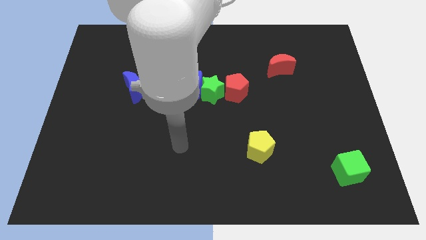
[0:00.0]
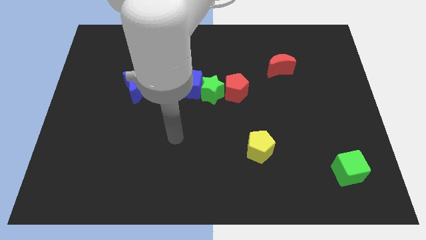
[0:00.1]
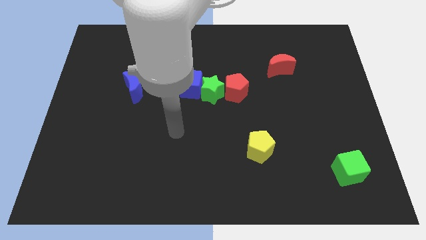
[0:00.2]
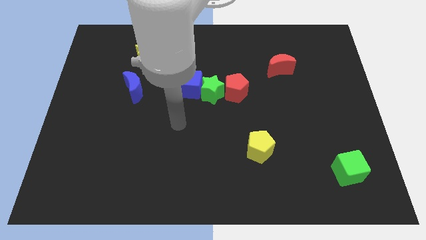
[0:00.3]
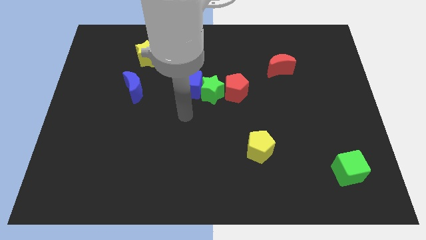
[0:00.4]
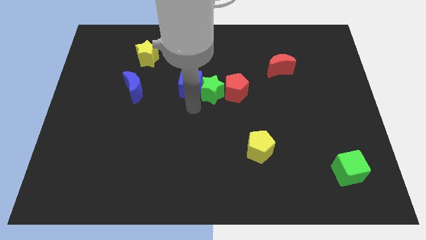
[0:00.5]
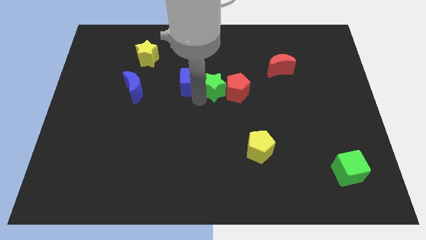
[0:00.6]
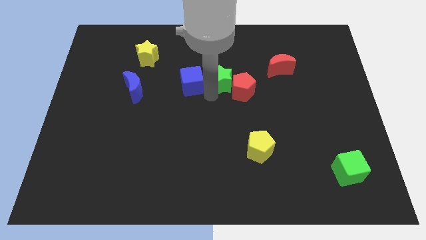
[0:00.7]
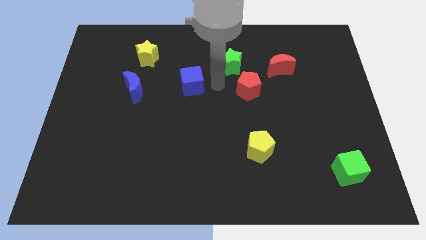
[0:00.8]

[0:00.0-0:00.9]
separate the blue cube from the green star

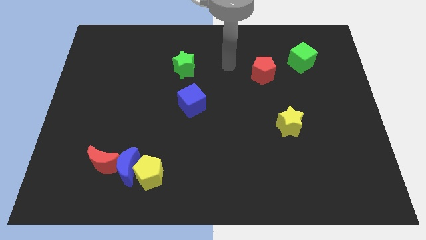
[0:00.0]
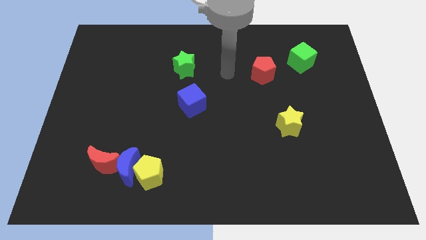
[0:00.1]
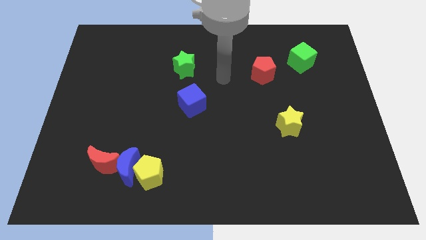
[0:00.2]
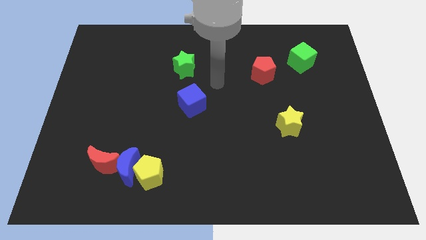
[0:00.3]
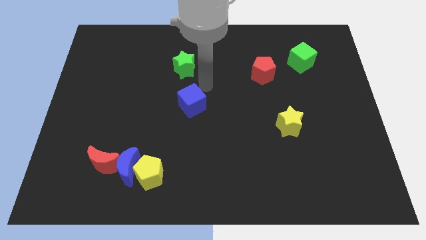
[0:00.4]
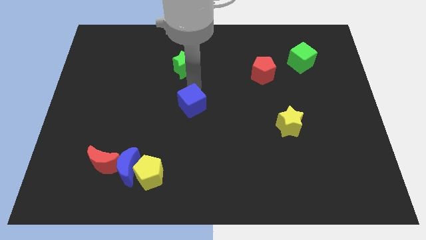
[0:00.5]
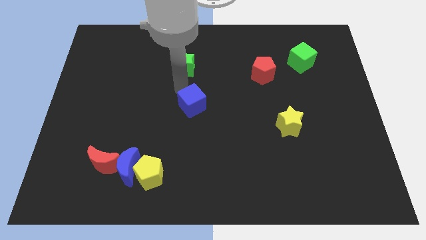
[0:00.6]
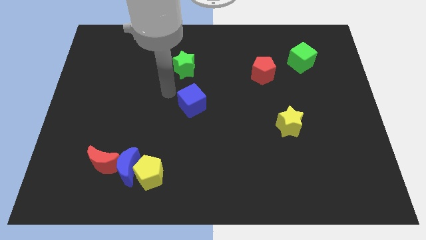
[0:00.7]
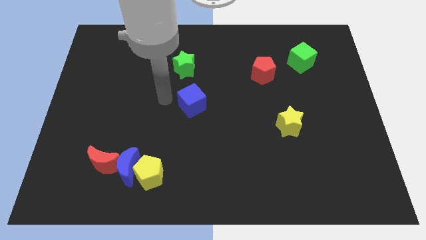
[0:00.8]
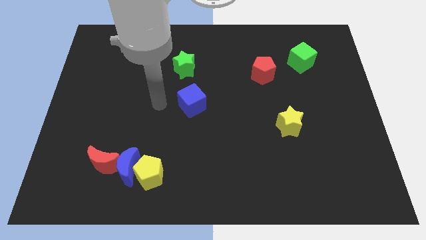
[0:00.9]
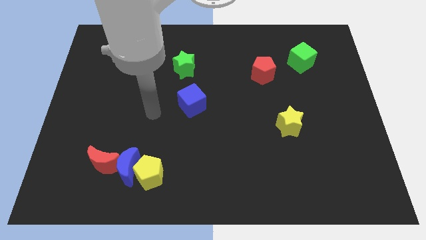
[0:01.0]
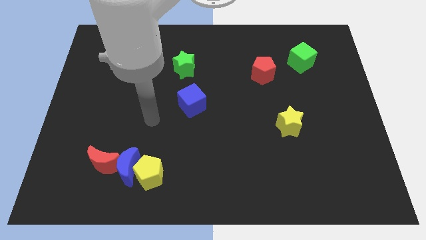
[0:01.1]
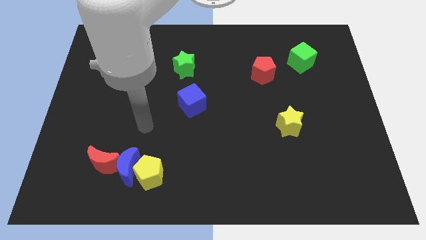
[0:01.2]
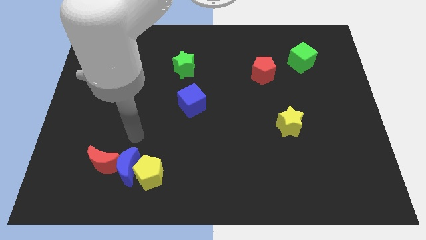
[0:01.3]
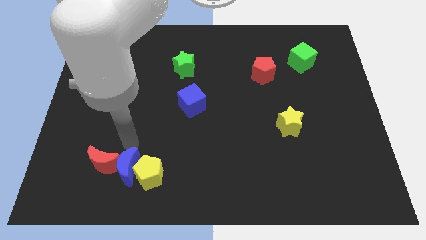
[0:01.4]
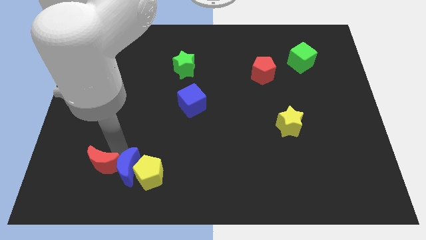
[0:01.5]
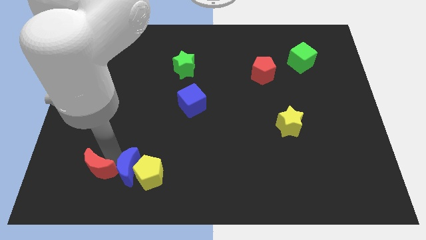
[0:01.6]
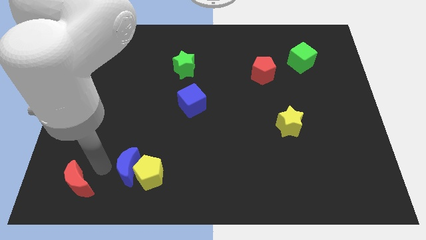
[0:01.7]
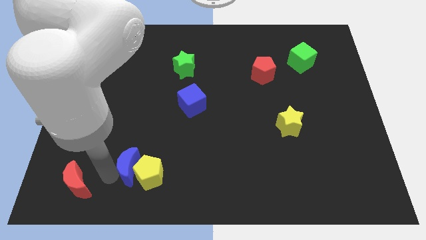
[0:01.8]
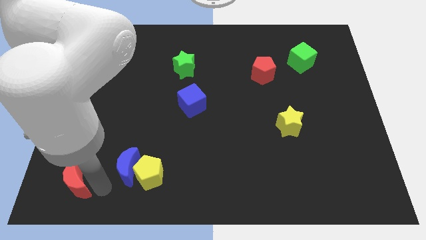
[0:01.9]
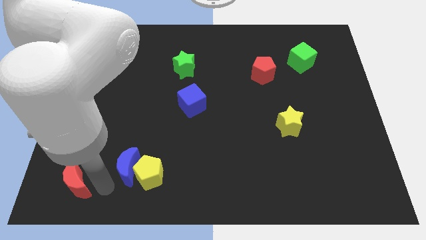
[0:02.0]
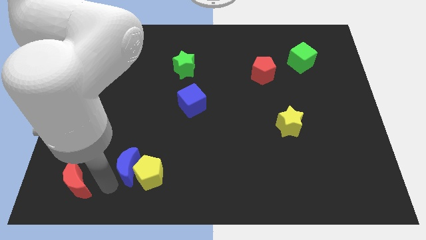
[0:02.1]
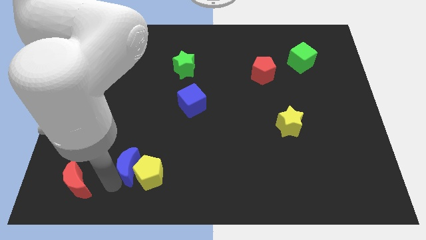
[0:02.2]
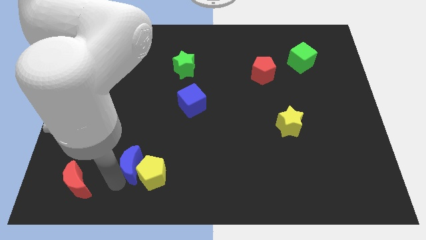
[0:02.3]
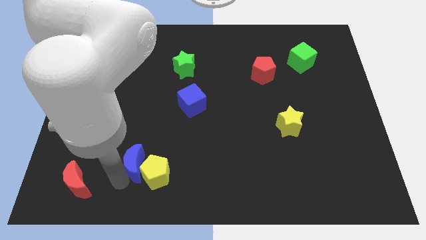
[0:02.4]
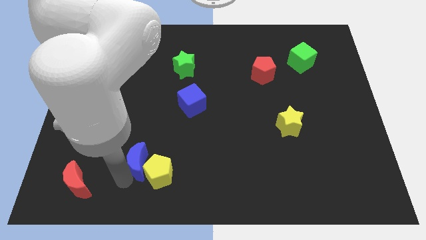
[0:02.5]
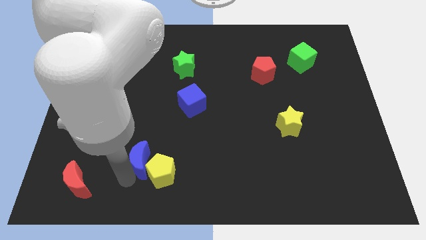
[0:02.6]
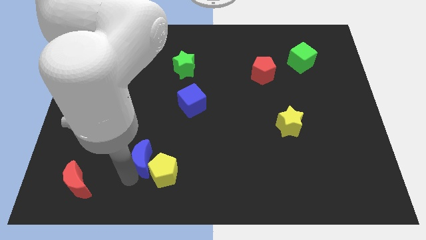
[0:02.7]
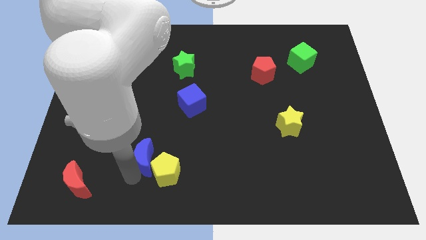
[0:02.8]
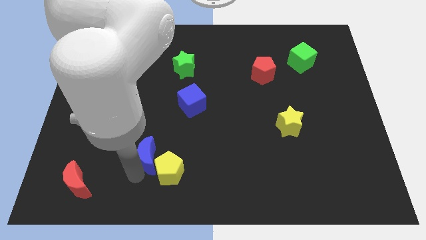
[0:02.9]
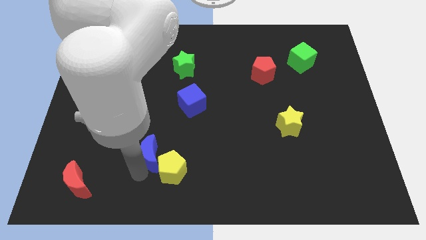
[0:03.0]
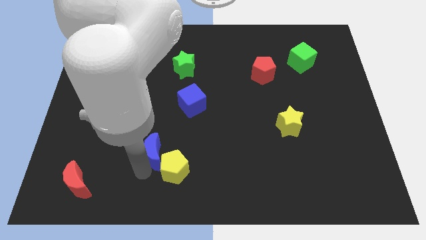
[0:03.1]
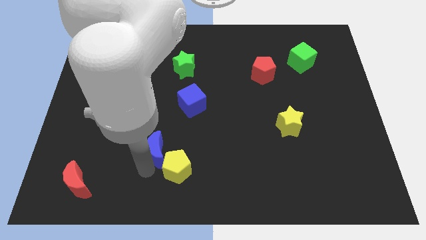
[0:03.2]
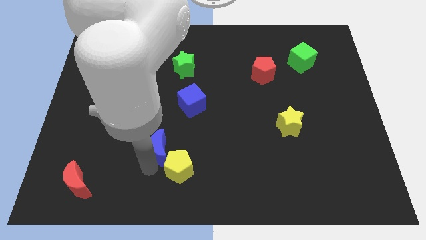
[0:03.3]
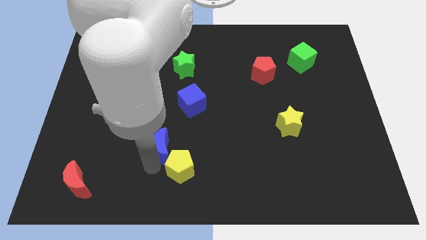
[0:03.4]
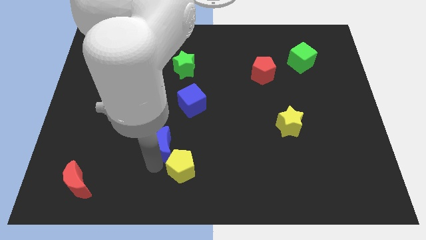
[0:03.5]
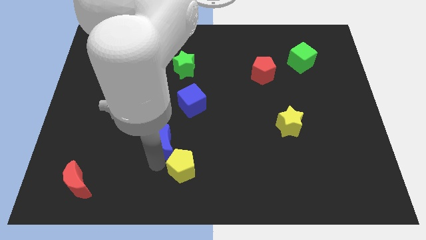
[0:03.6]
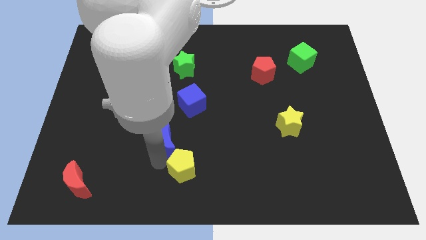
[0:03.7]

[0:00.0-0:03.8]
move the blue moon away from the yellow pentagon and red moon

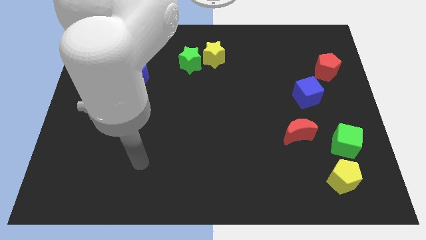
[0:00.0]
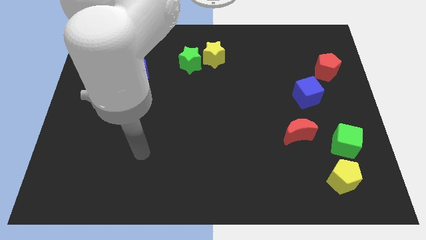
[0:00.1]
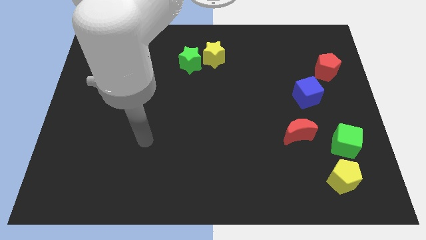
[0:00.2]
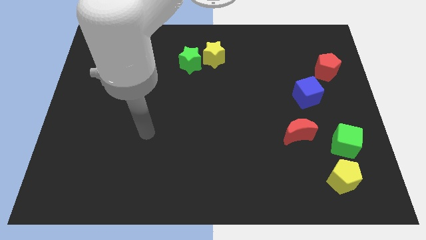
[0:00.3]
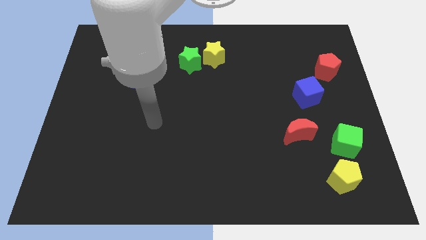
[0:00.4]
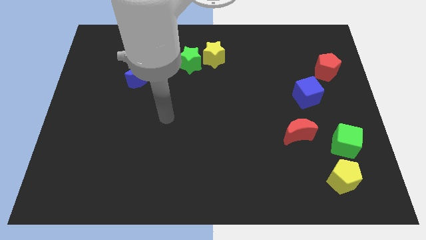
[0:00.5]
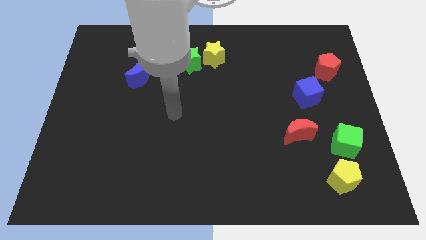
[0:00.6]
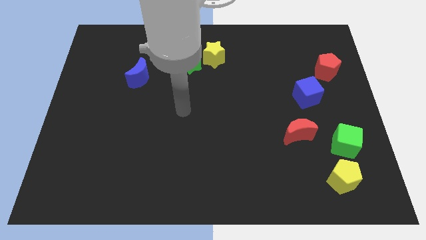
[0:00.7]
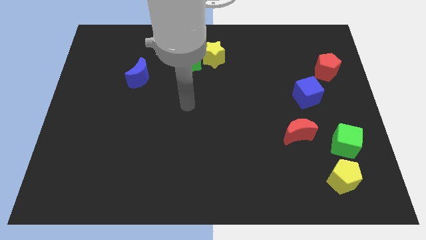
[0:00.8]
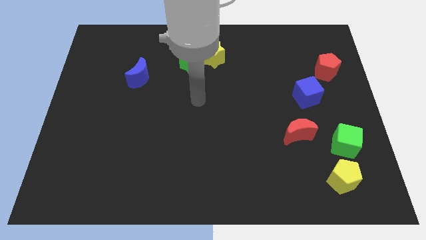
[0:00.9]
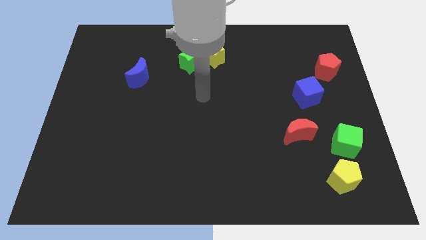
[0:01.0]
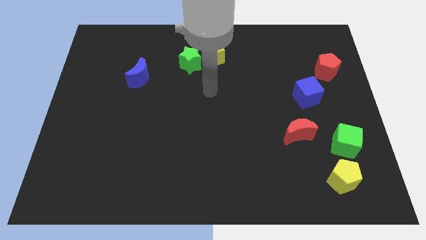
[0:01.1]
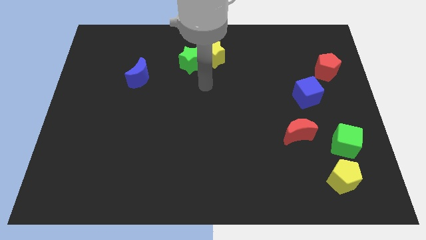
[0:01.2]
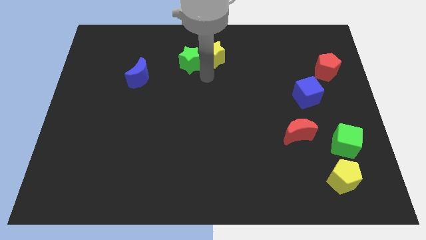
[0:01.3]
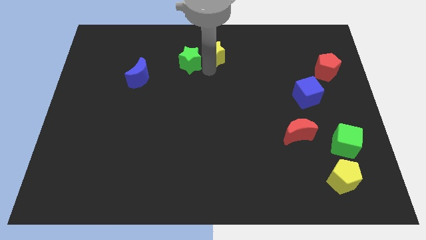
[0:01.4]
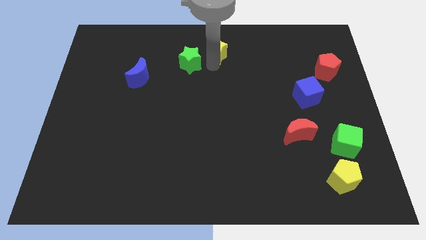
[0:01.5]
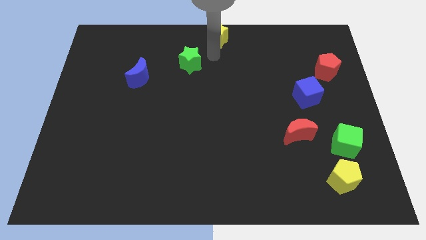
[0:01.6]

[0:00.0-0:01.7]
pull the green star apart from the yellow star

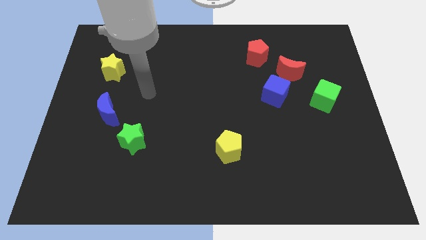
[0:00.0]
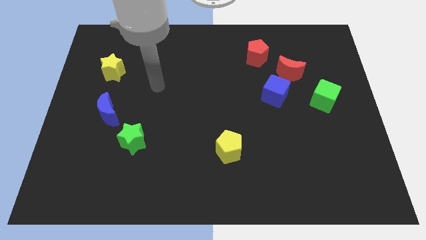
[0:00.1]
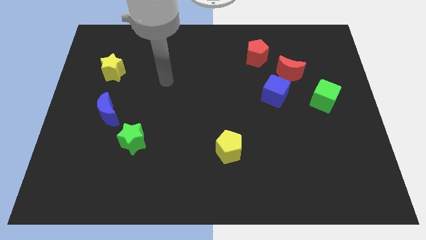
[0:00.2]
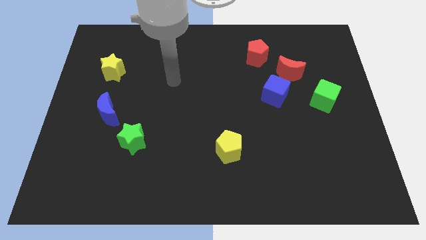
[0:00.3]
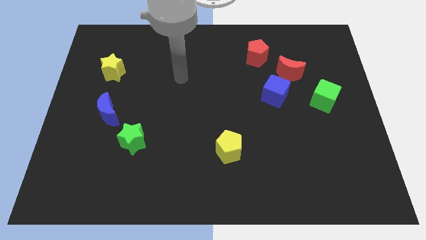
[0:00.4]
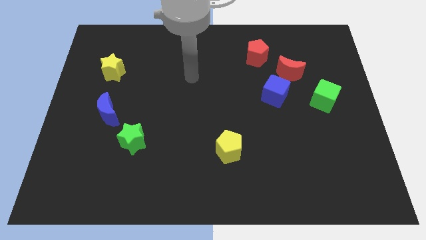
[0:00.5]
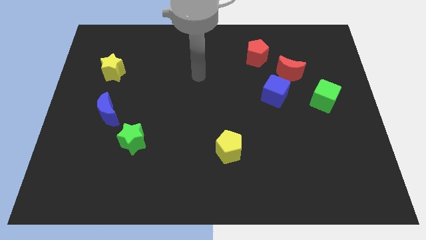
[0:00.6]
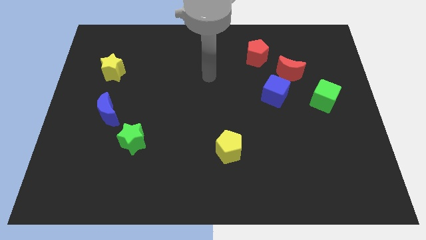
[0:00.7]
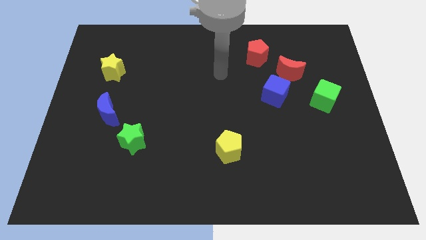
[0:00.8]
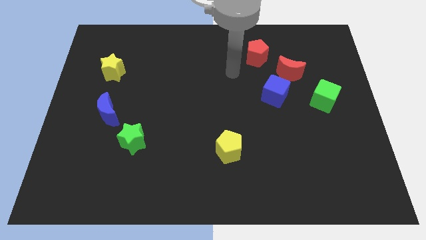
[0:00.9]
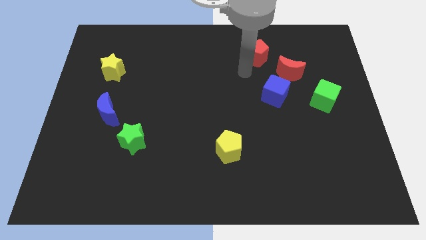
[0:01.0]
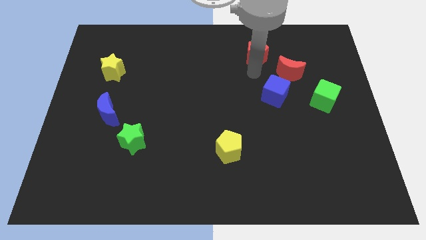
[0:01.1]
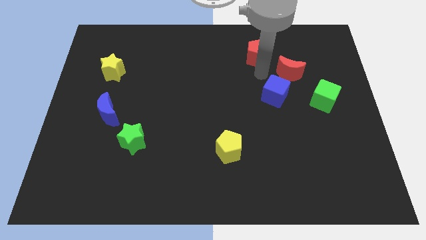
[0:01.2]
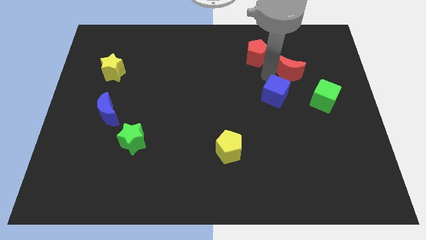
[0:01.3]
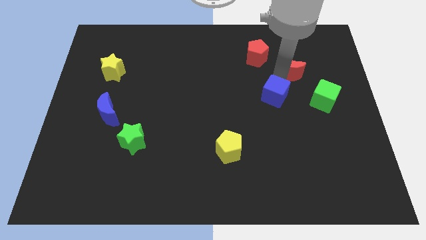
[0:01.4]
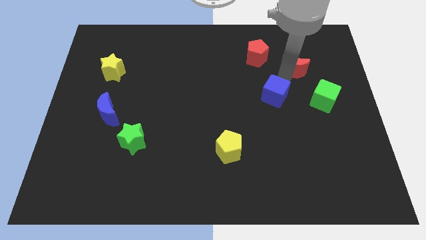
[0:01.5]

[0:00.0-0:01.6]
pull the blue cube apart from the red moon

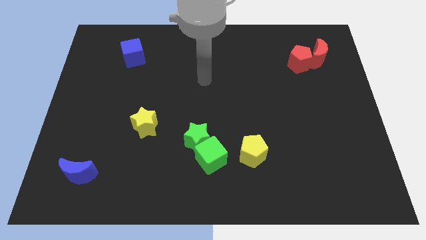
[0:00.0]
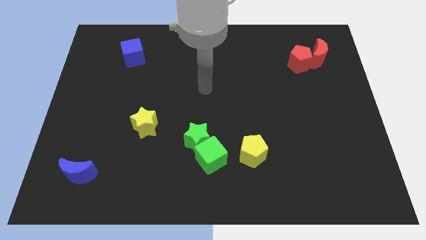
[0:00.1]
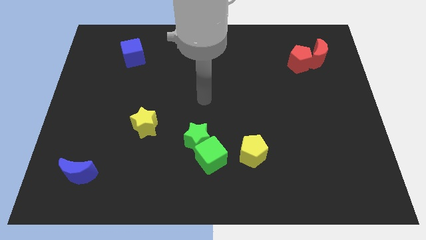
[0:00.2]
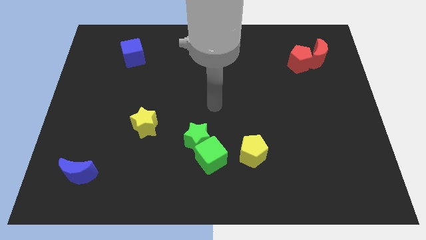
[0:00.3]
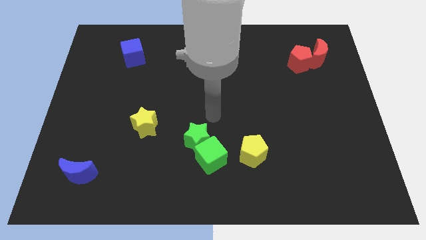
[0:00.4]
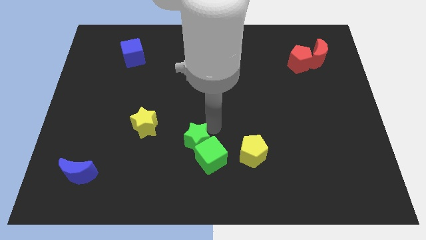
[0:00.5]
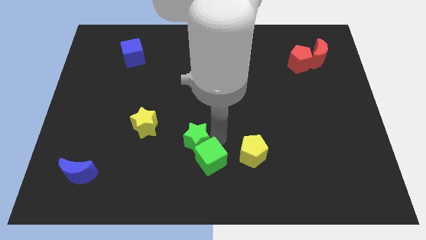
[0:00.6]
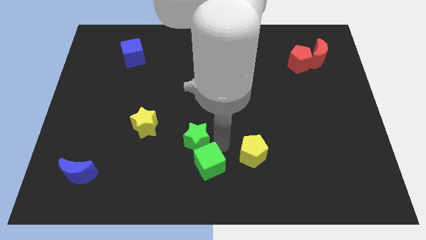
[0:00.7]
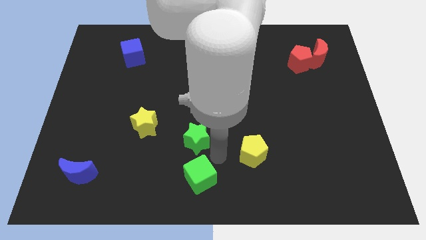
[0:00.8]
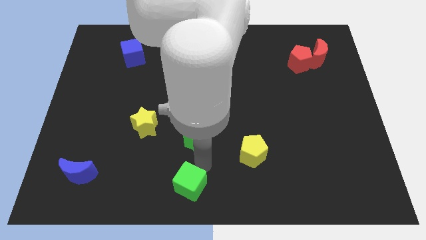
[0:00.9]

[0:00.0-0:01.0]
separate the green star from the green cube

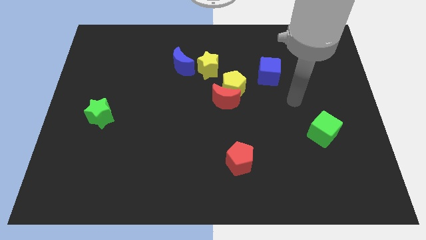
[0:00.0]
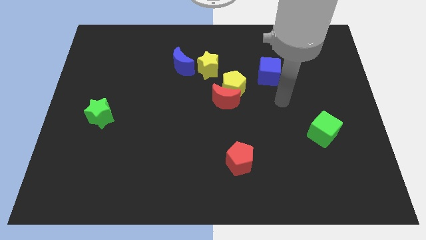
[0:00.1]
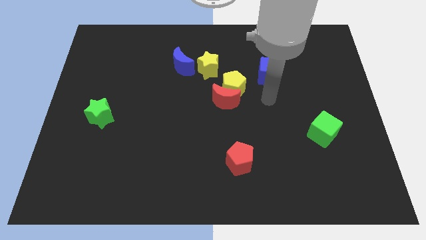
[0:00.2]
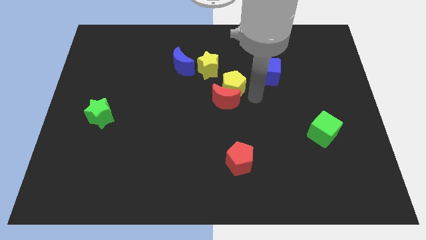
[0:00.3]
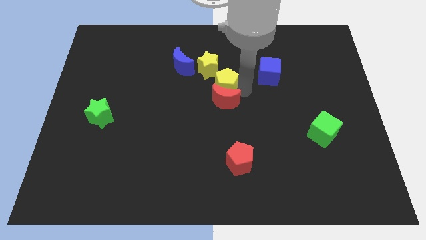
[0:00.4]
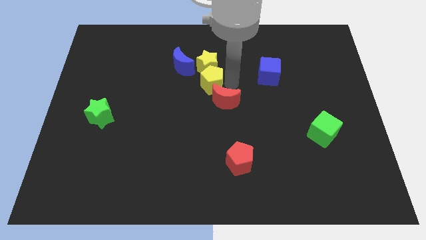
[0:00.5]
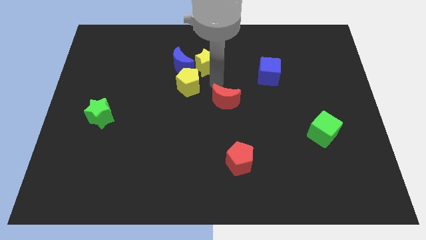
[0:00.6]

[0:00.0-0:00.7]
pull the red moon apart from the yellow pentagon
